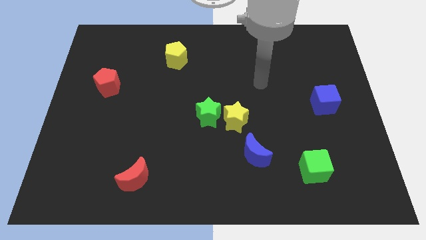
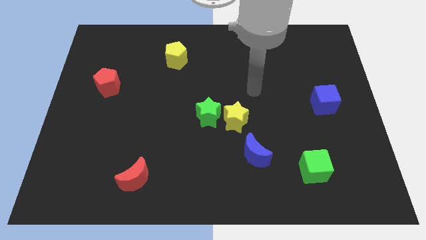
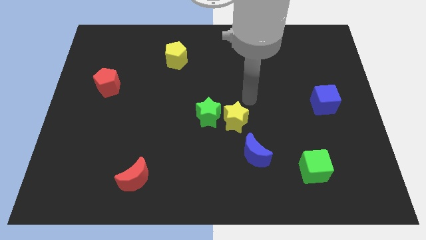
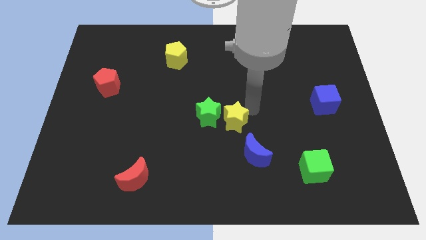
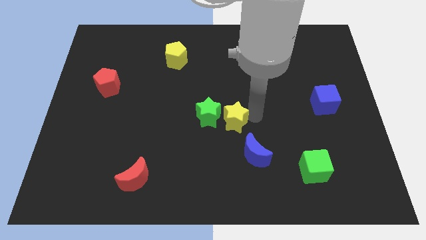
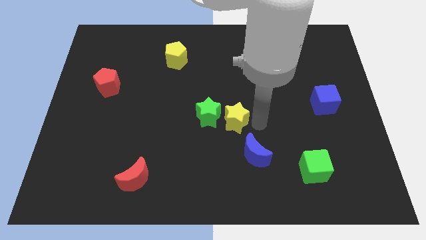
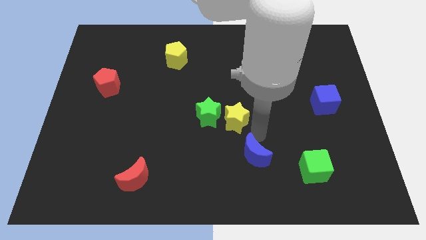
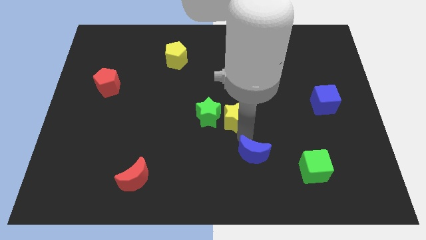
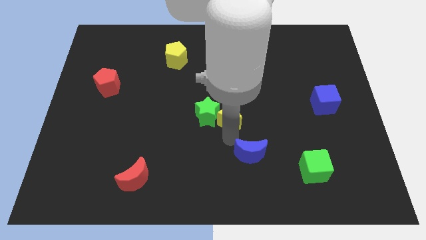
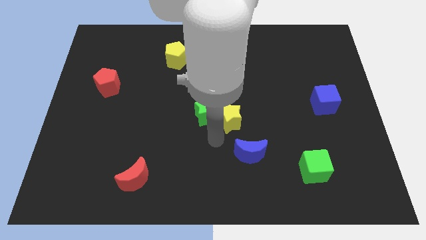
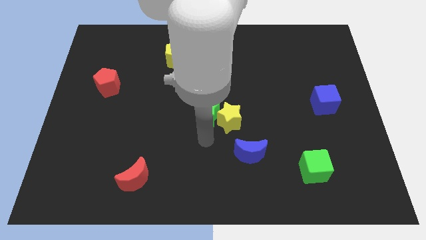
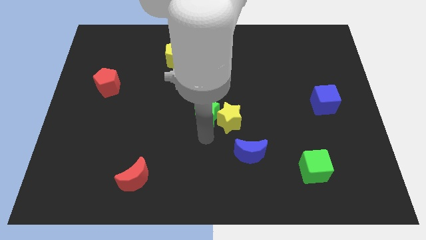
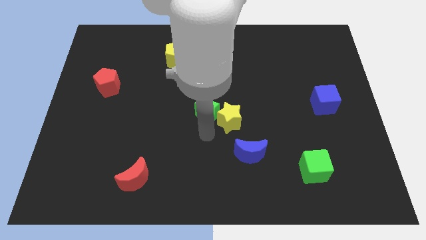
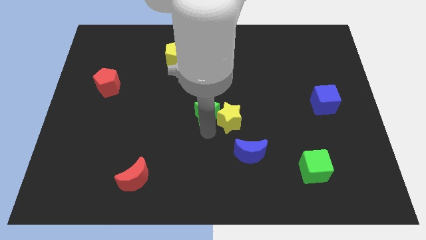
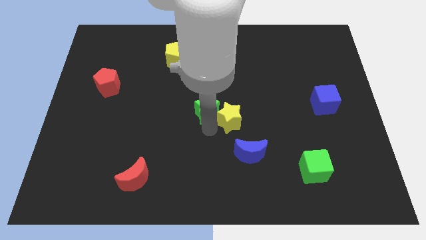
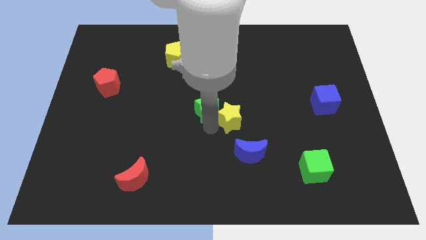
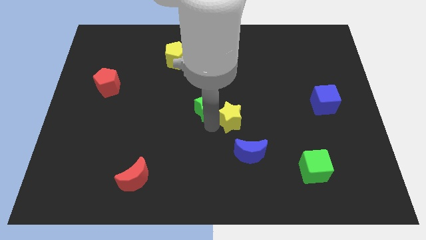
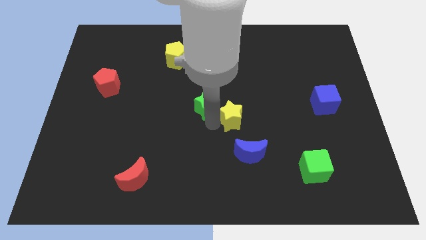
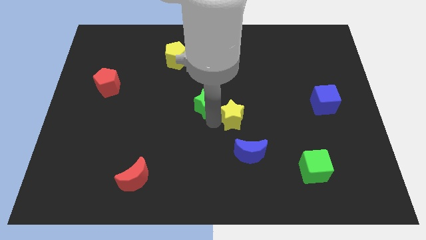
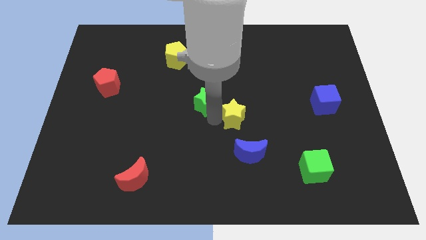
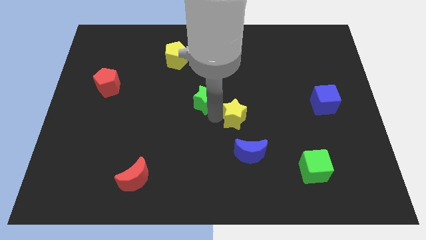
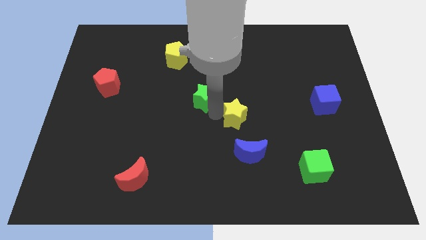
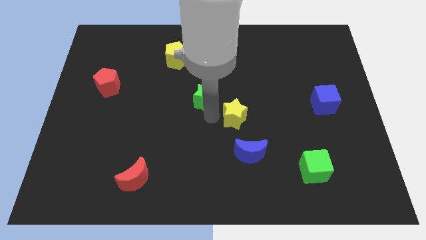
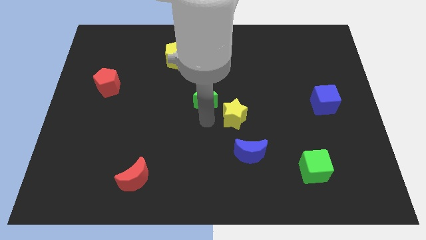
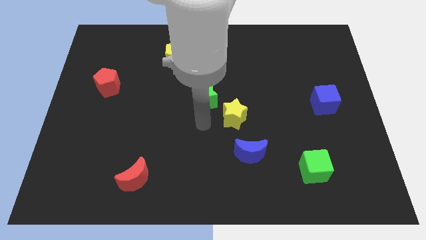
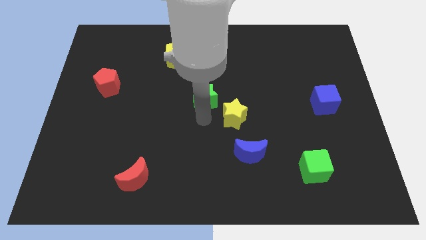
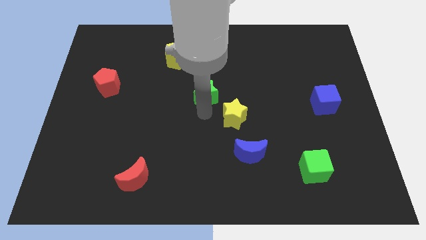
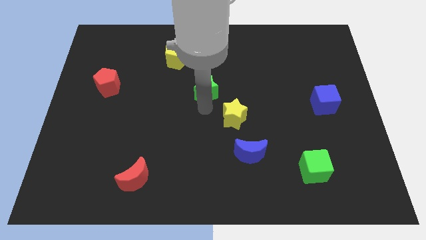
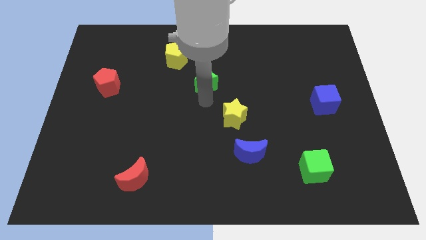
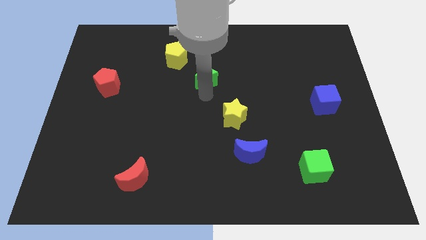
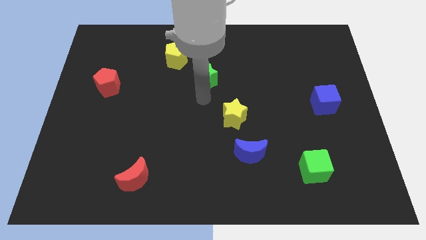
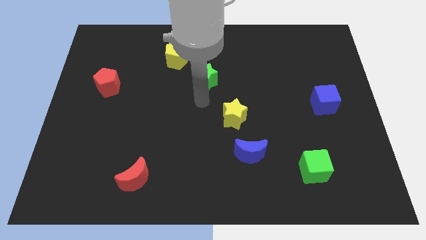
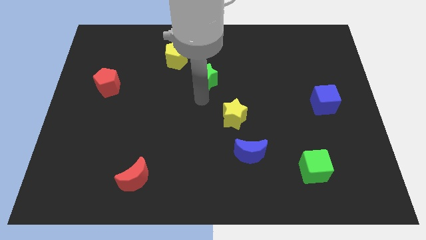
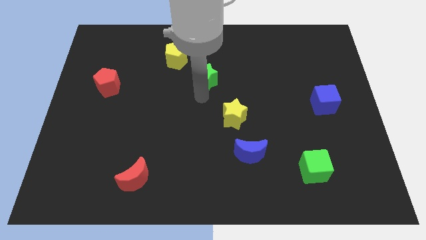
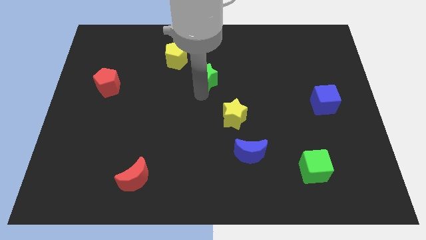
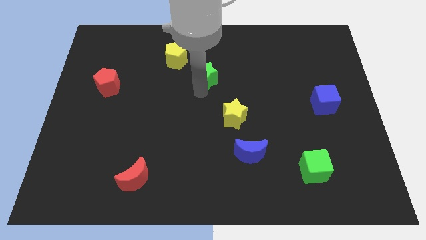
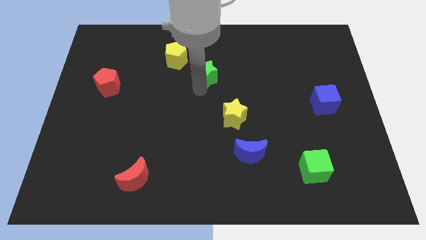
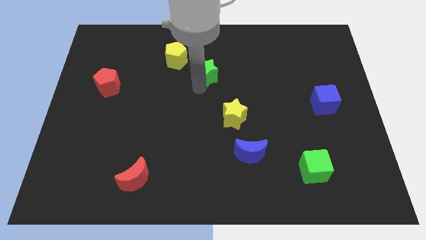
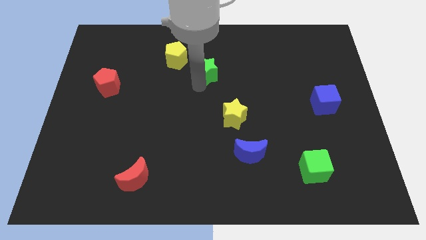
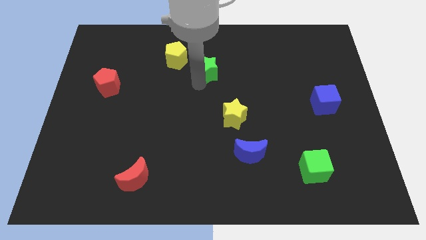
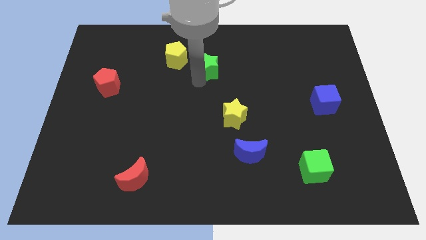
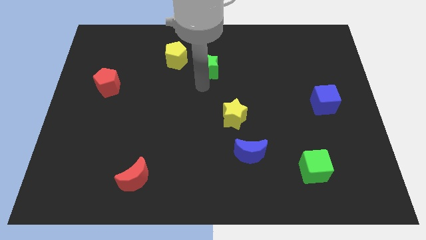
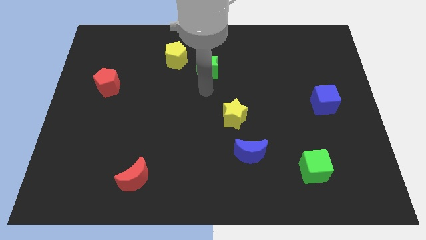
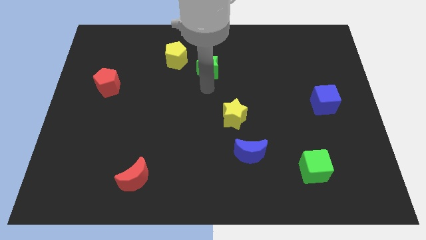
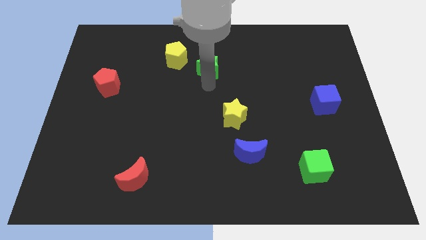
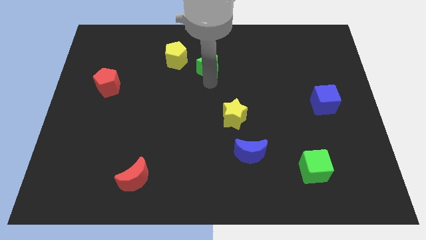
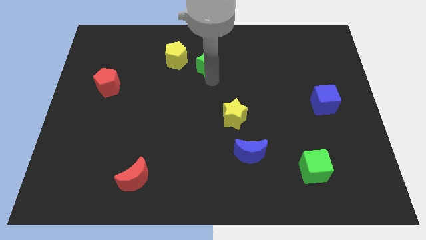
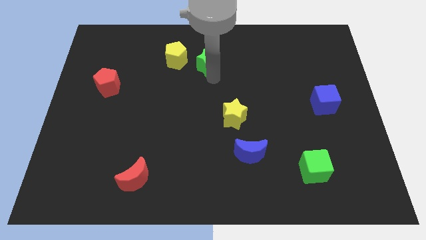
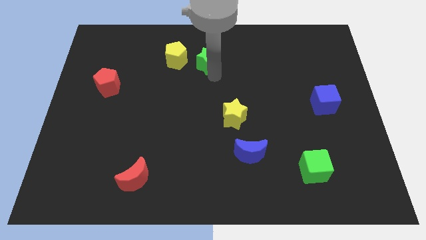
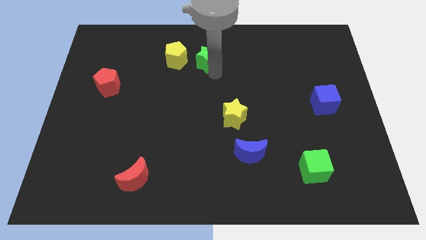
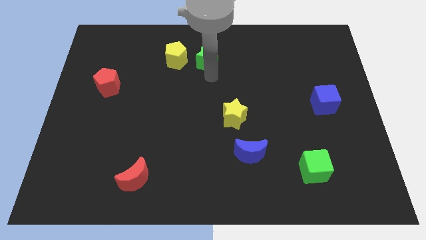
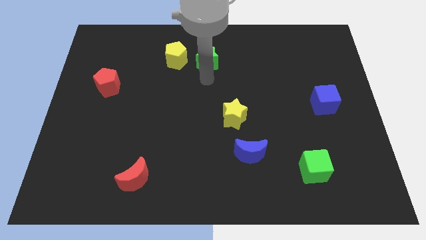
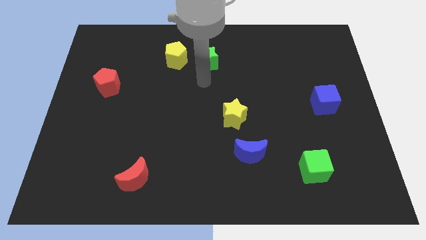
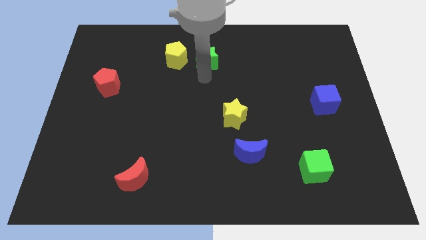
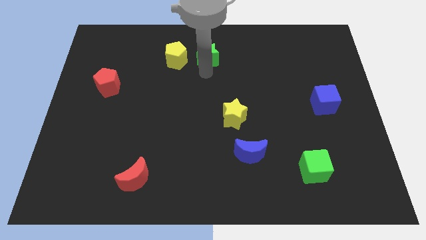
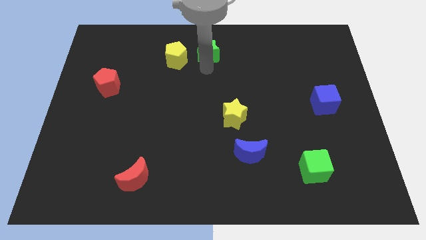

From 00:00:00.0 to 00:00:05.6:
move the green star to the top

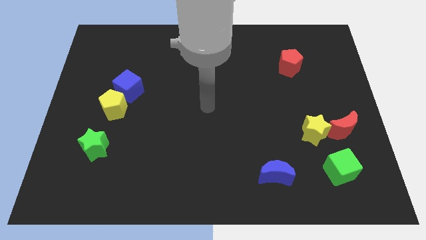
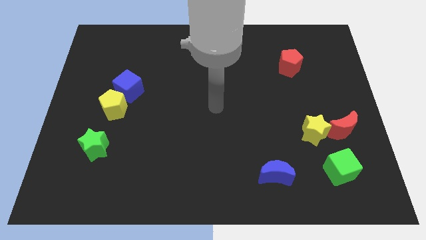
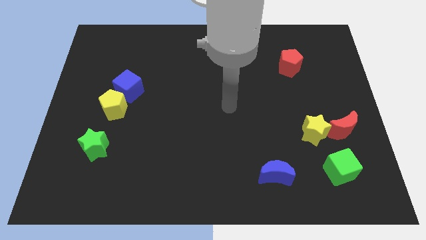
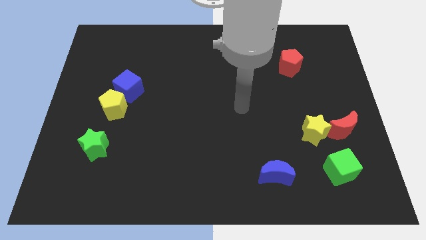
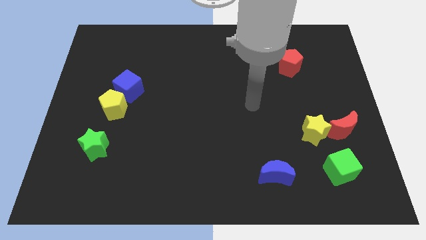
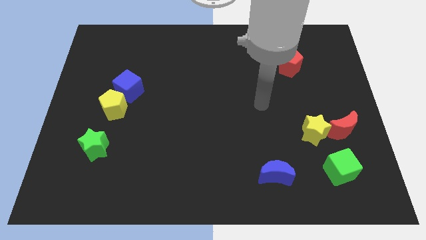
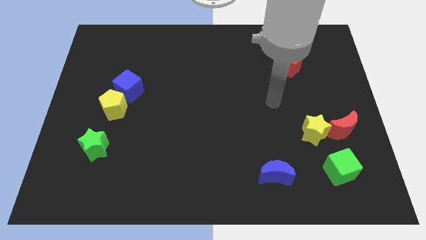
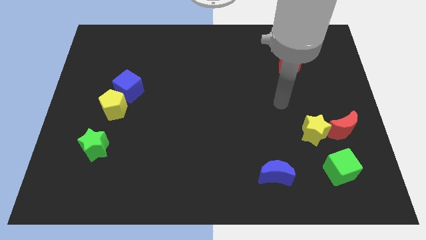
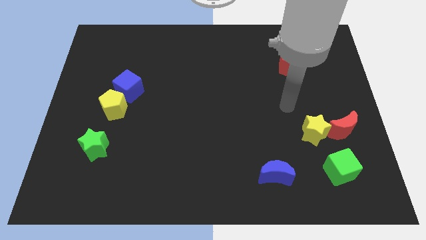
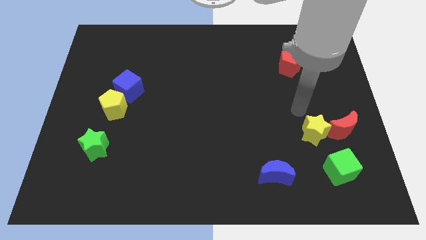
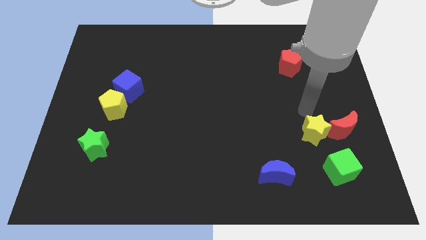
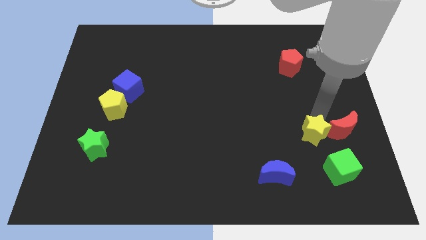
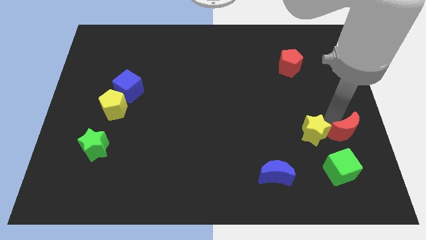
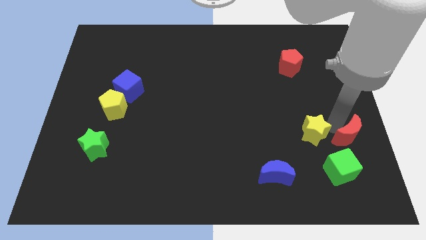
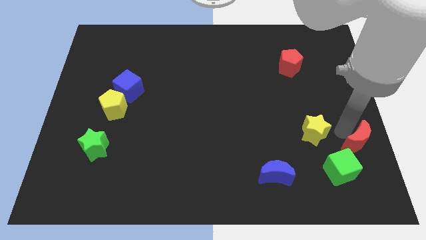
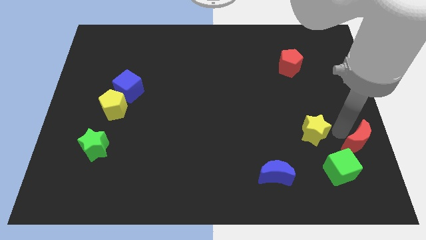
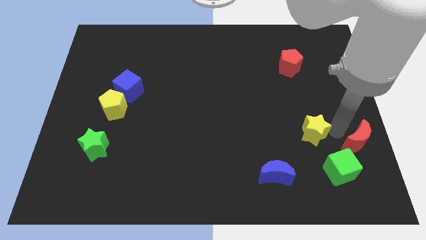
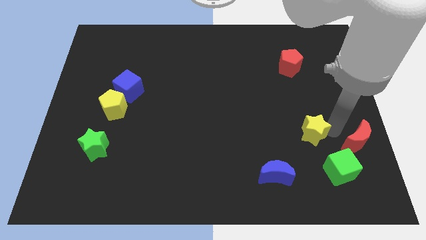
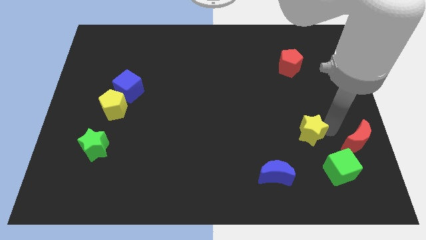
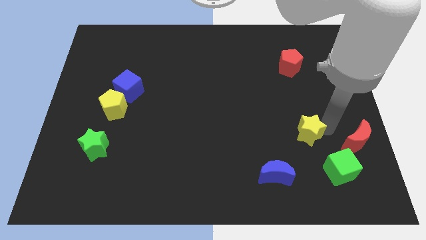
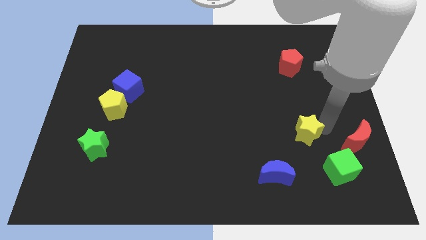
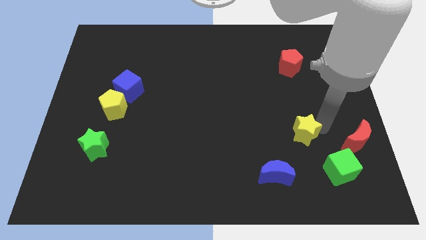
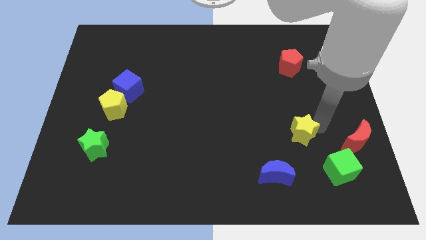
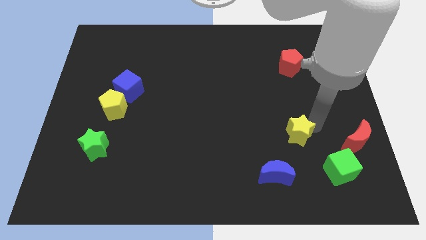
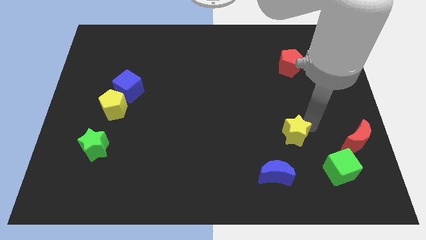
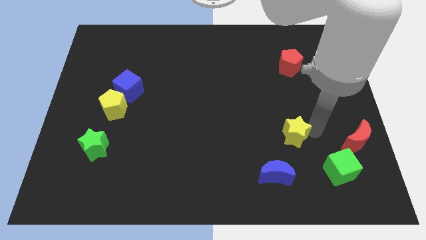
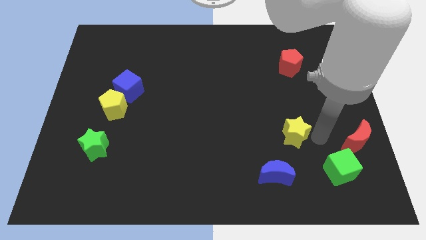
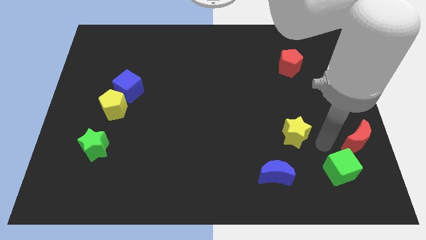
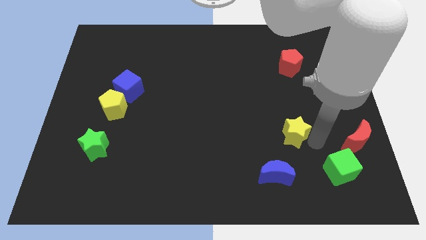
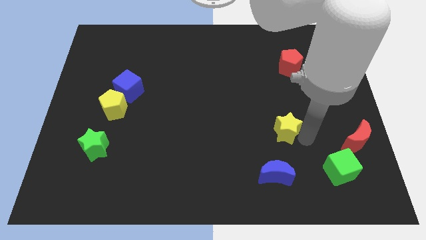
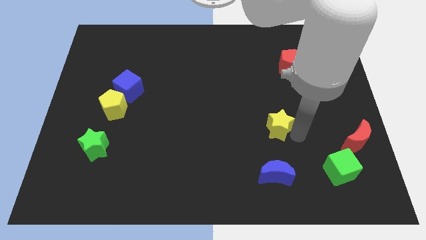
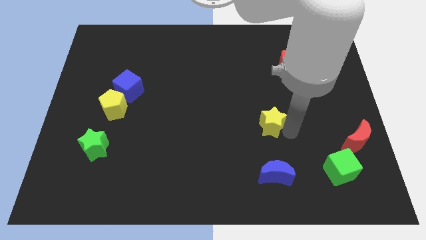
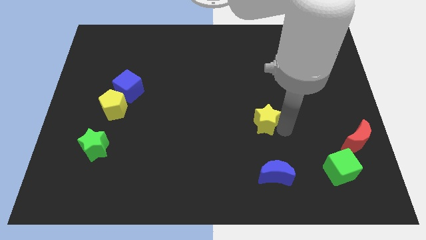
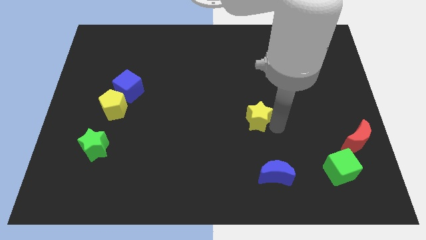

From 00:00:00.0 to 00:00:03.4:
put the yellow star to the middle
